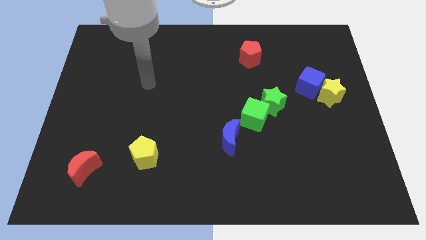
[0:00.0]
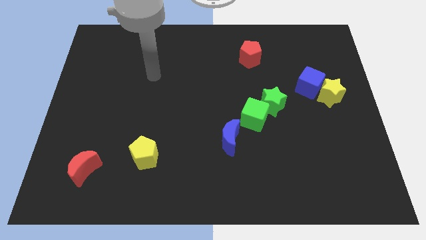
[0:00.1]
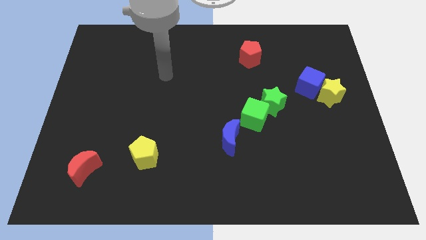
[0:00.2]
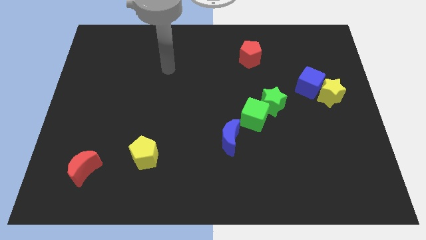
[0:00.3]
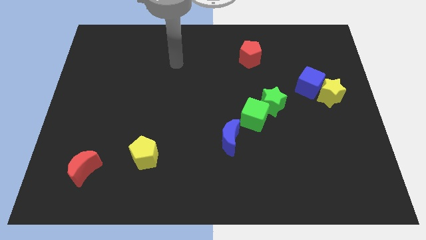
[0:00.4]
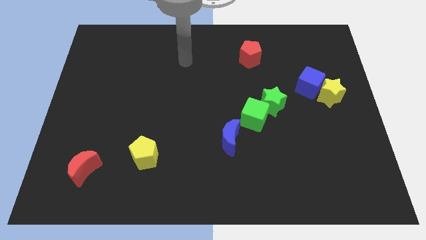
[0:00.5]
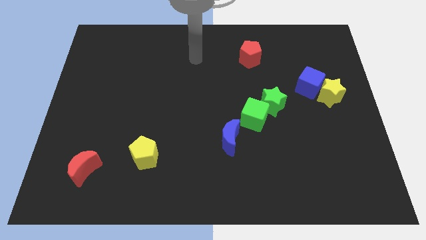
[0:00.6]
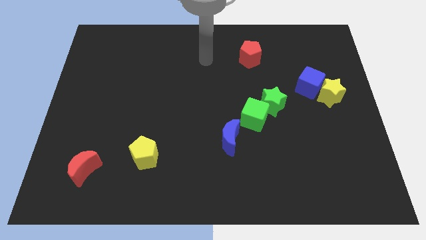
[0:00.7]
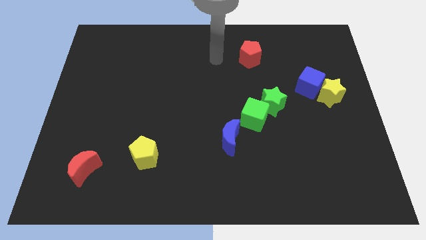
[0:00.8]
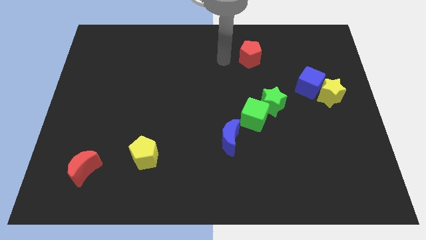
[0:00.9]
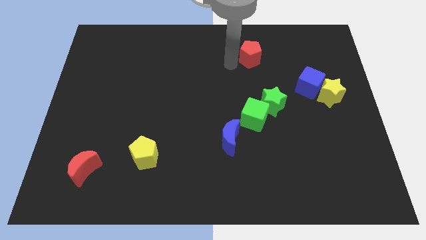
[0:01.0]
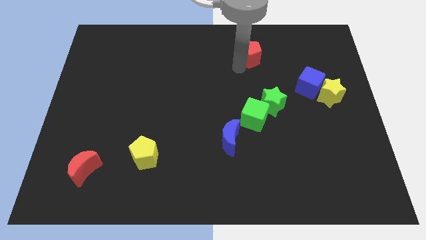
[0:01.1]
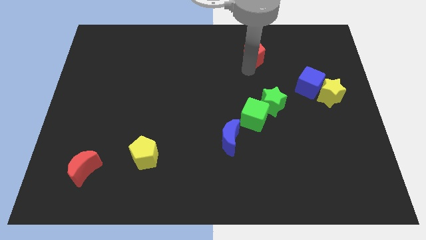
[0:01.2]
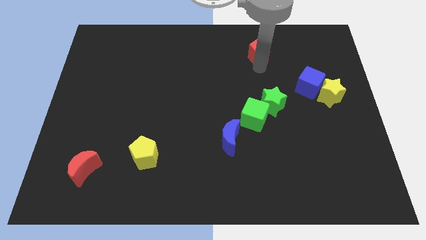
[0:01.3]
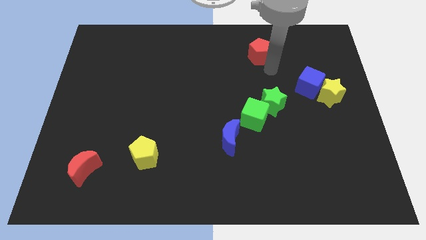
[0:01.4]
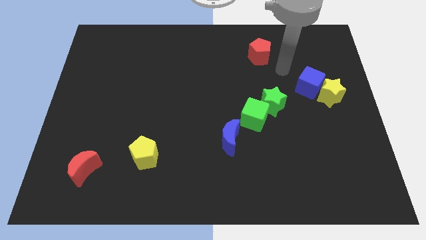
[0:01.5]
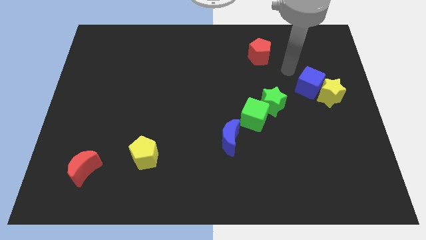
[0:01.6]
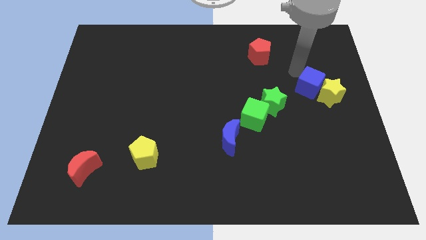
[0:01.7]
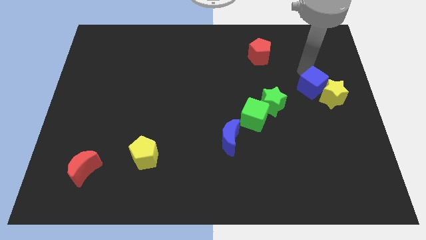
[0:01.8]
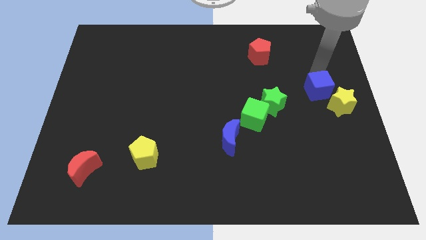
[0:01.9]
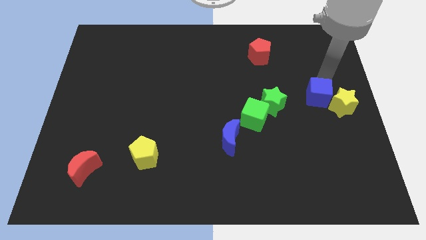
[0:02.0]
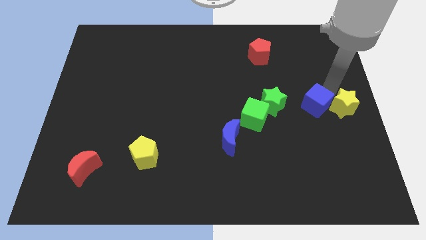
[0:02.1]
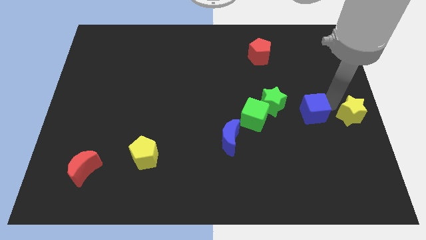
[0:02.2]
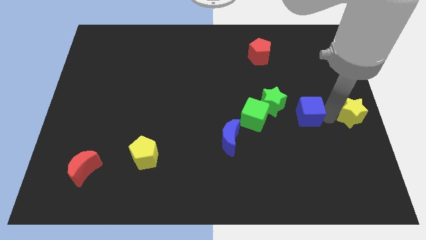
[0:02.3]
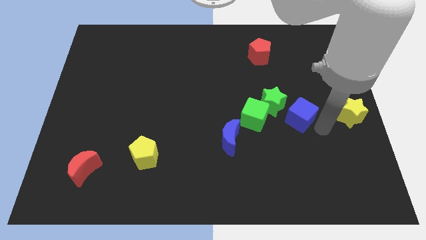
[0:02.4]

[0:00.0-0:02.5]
separate the blue cube from the yellow star

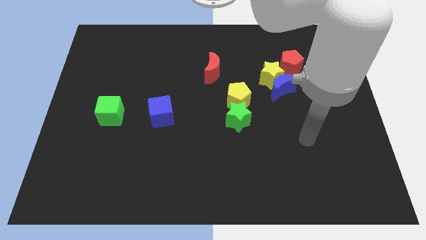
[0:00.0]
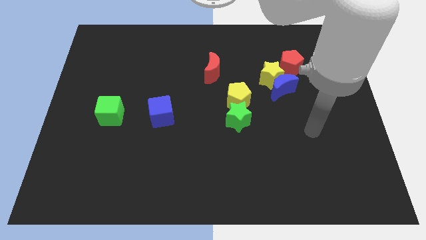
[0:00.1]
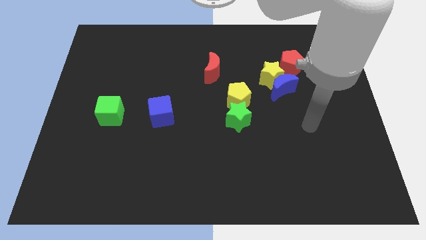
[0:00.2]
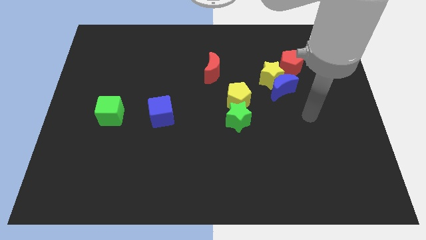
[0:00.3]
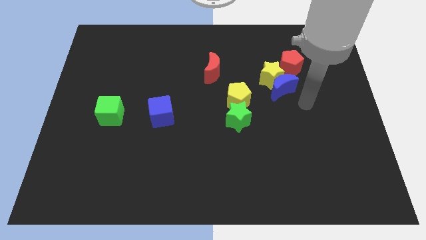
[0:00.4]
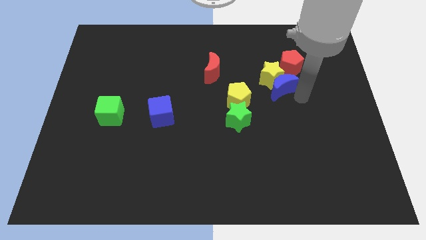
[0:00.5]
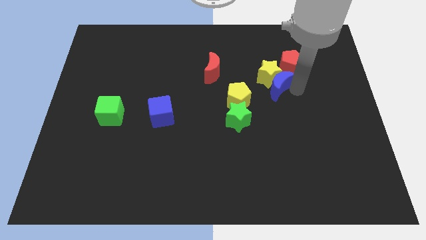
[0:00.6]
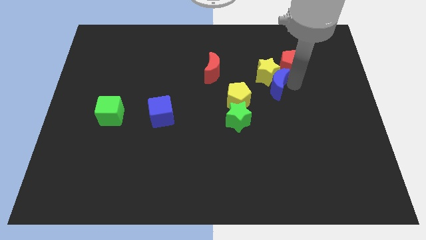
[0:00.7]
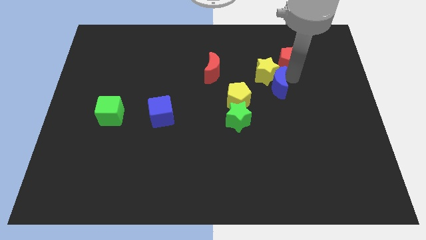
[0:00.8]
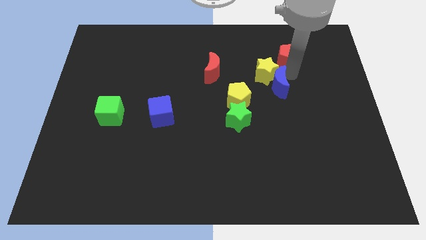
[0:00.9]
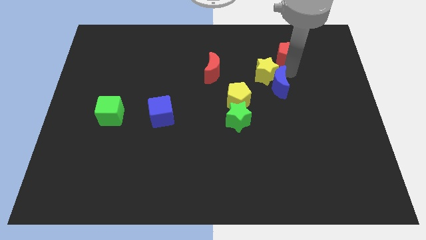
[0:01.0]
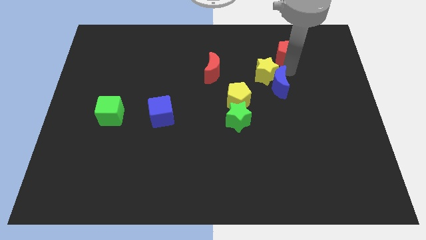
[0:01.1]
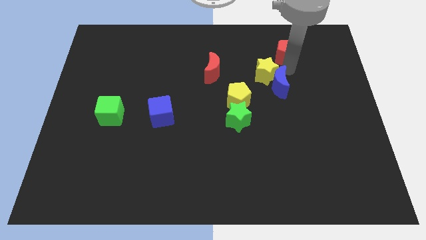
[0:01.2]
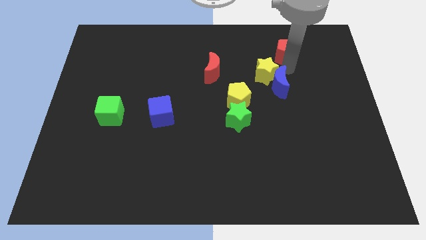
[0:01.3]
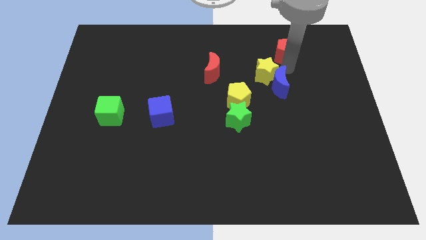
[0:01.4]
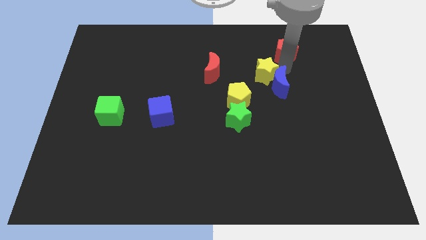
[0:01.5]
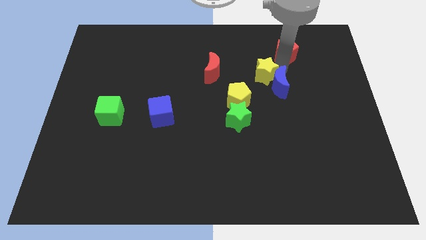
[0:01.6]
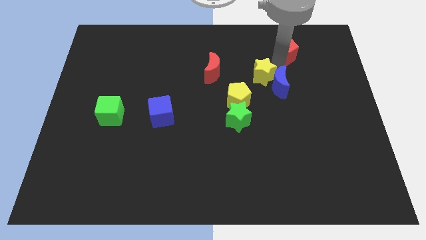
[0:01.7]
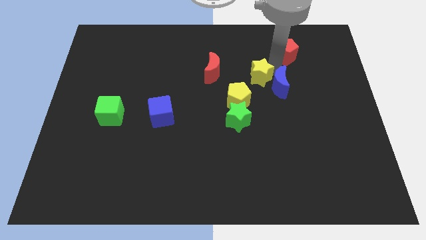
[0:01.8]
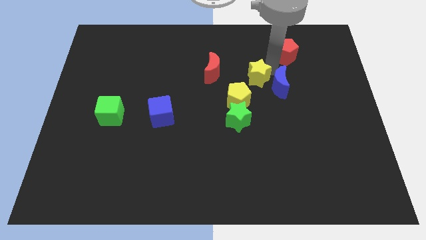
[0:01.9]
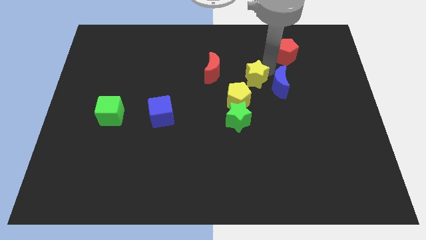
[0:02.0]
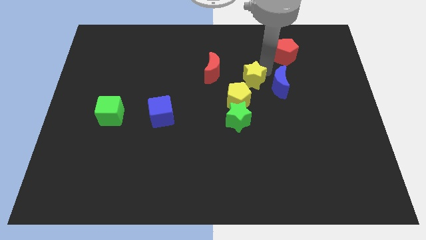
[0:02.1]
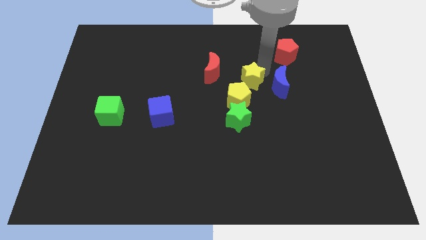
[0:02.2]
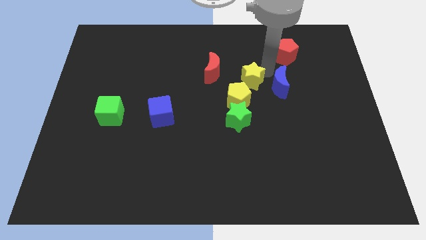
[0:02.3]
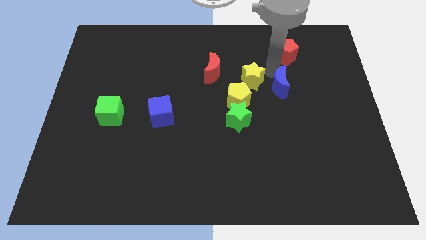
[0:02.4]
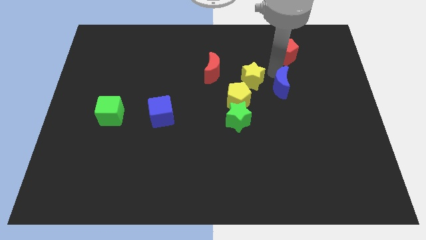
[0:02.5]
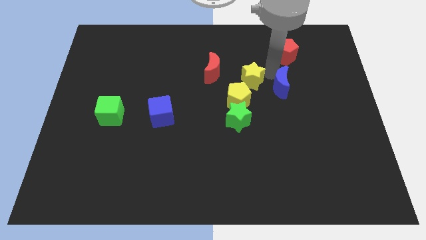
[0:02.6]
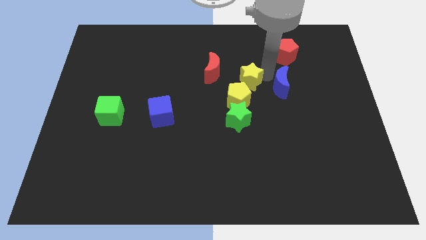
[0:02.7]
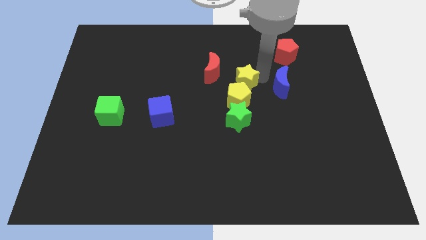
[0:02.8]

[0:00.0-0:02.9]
separate the yellow star from the blue moon and red pentagon

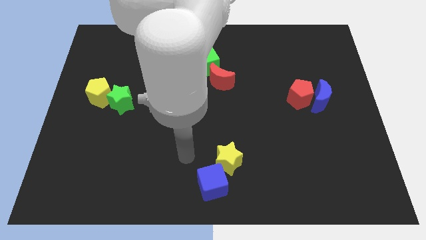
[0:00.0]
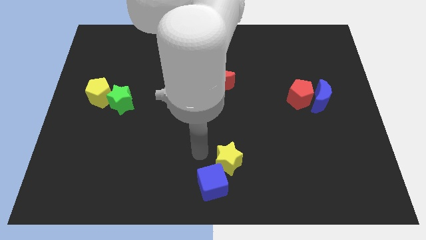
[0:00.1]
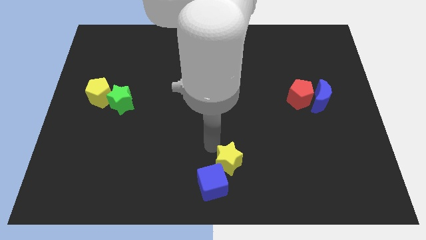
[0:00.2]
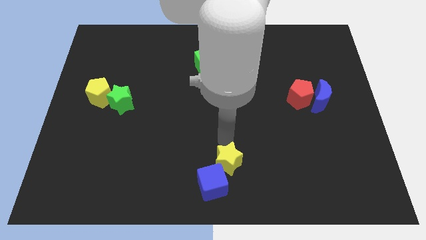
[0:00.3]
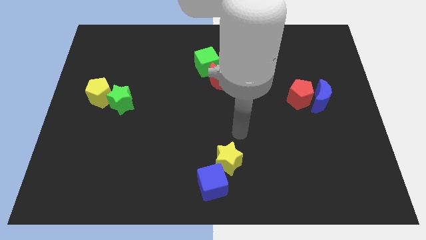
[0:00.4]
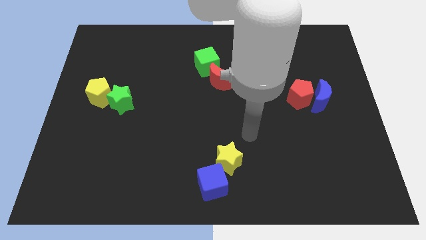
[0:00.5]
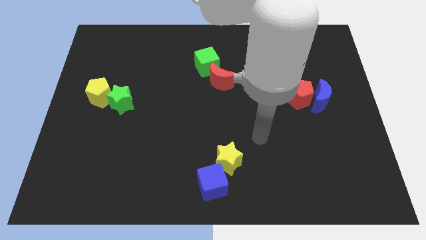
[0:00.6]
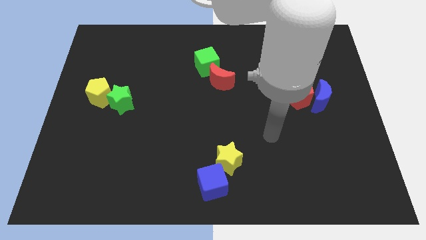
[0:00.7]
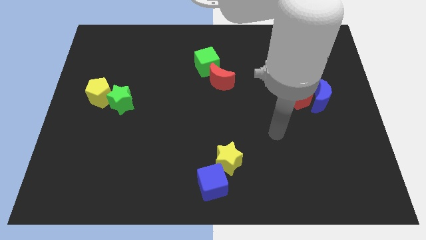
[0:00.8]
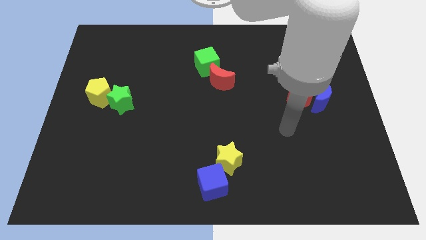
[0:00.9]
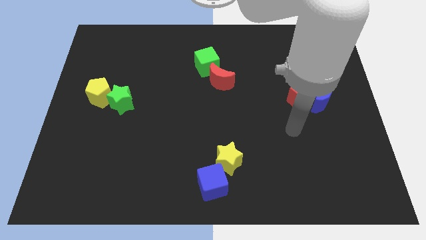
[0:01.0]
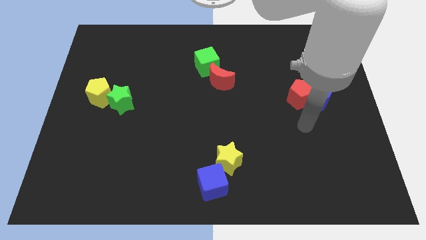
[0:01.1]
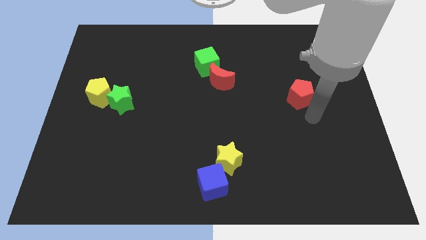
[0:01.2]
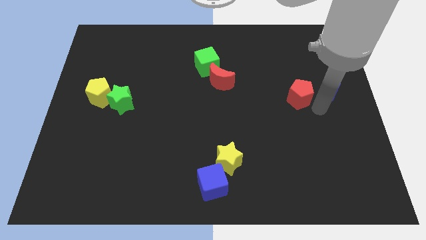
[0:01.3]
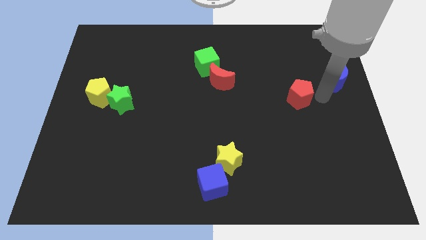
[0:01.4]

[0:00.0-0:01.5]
pull the red pentagon apart from the blue moon

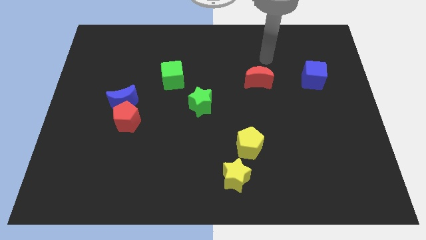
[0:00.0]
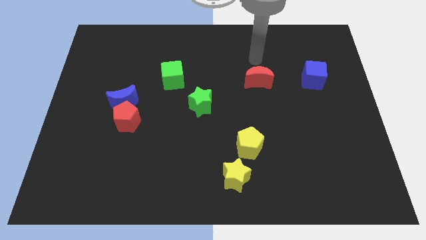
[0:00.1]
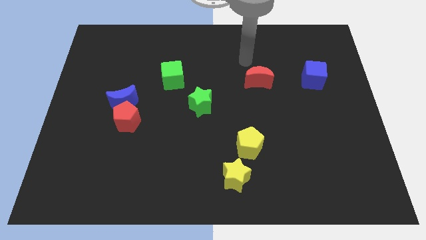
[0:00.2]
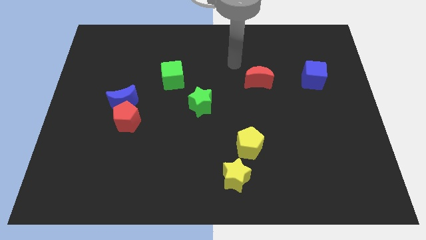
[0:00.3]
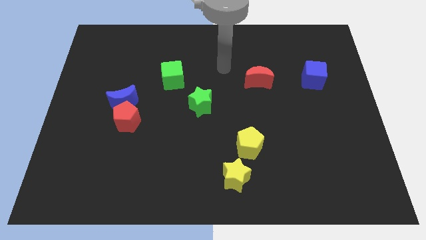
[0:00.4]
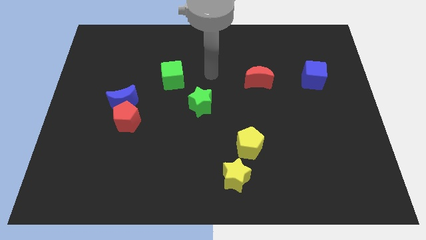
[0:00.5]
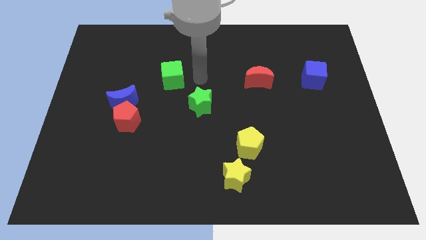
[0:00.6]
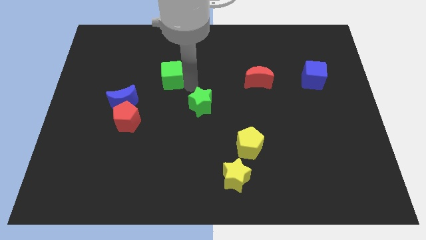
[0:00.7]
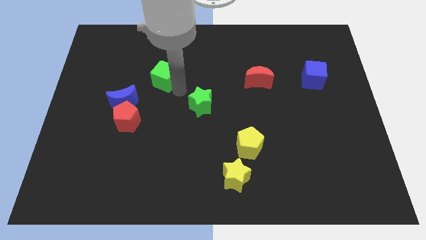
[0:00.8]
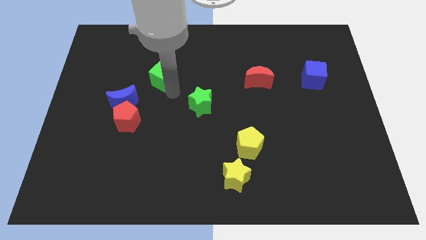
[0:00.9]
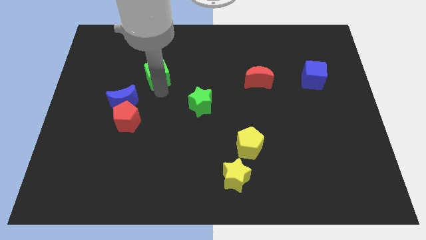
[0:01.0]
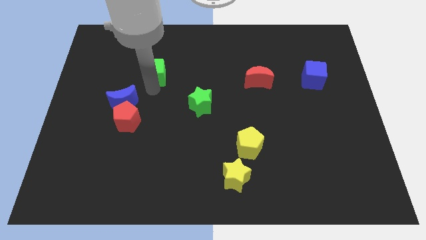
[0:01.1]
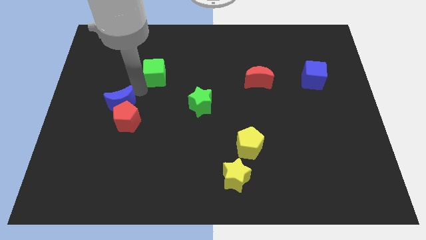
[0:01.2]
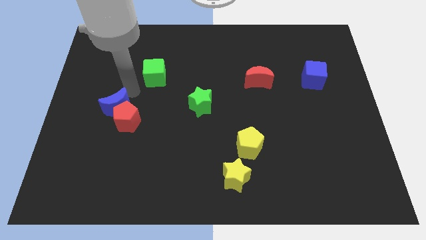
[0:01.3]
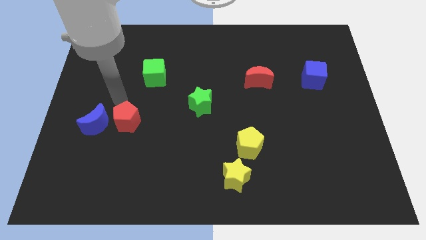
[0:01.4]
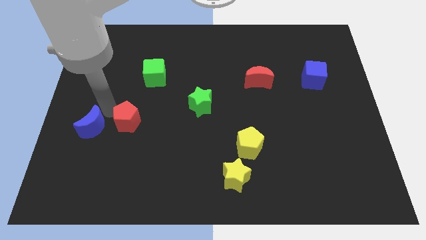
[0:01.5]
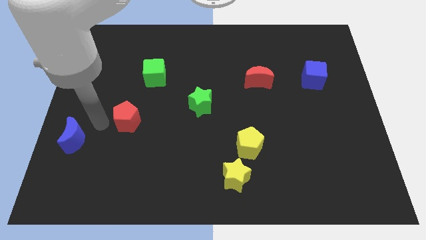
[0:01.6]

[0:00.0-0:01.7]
separate the red pentagon from the blue moon

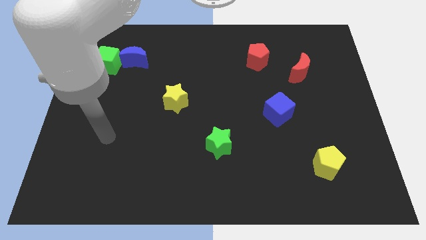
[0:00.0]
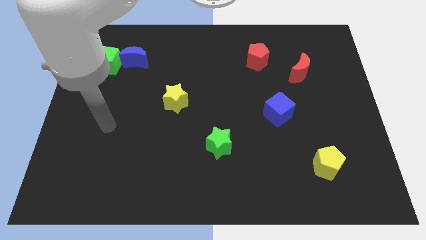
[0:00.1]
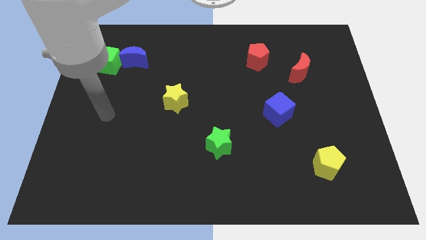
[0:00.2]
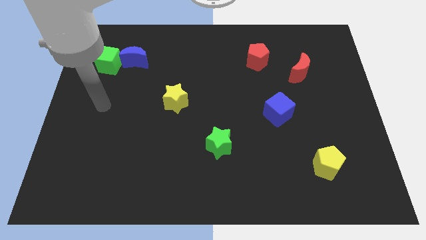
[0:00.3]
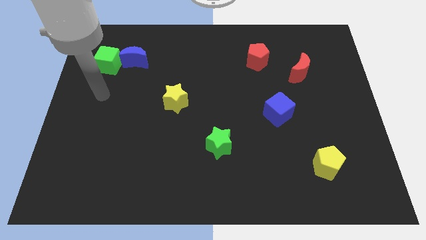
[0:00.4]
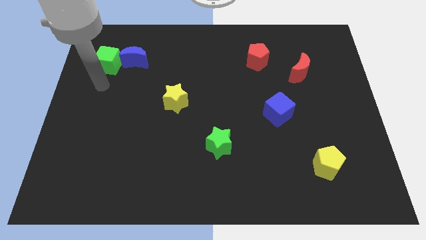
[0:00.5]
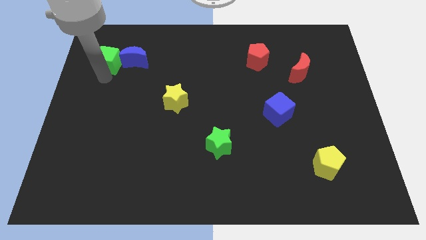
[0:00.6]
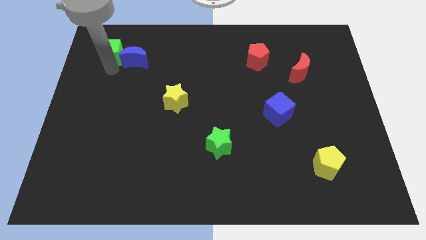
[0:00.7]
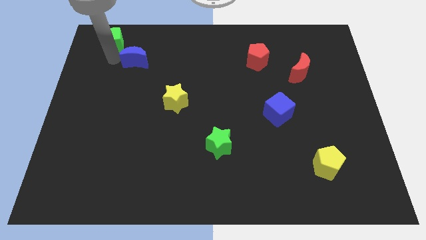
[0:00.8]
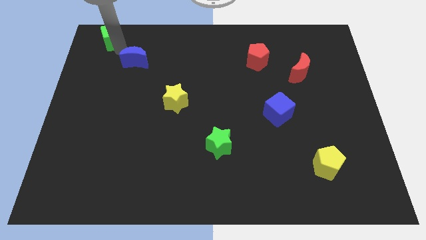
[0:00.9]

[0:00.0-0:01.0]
move the blue moon away from the green cube
